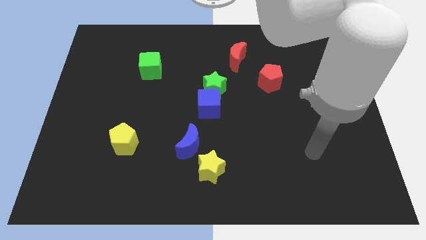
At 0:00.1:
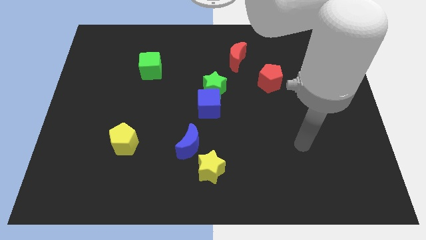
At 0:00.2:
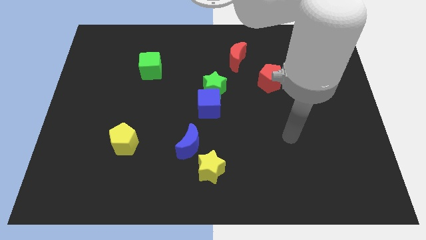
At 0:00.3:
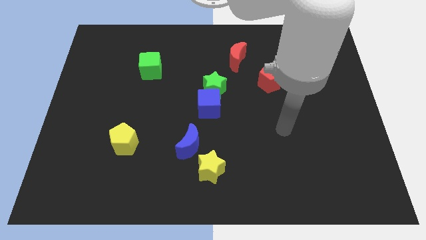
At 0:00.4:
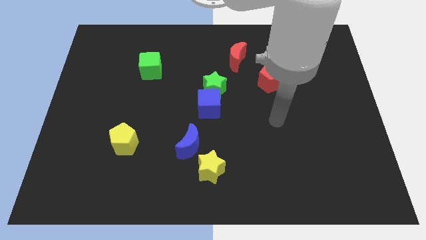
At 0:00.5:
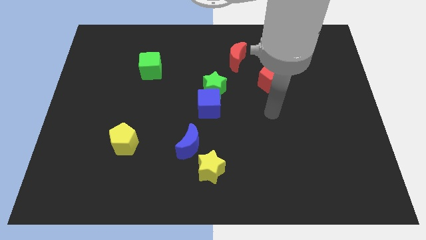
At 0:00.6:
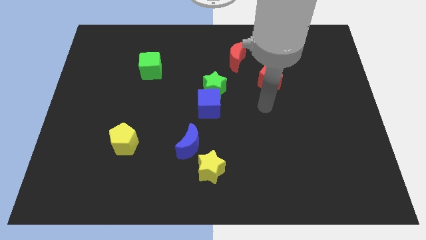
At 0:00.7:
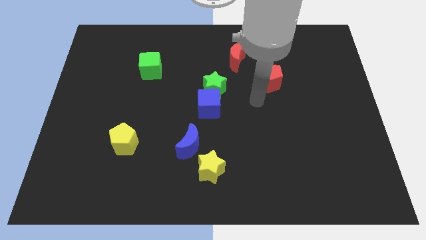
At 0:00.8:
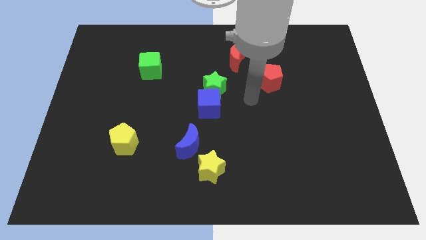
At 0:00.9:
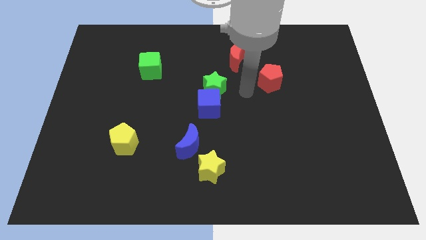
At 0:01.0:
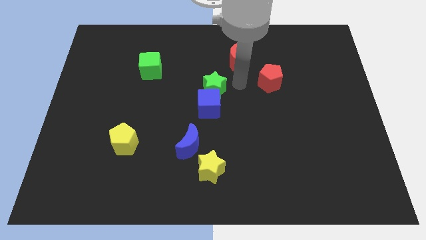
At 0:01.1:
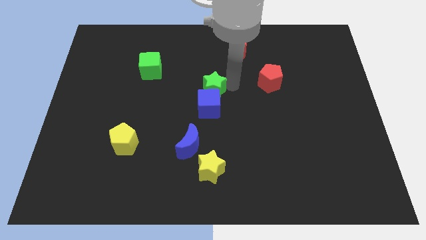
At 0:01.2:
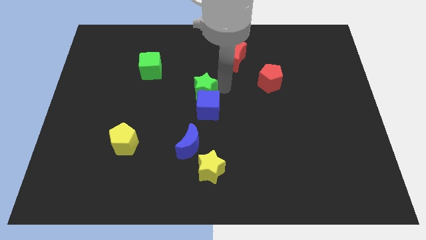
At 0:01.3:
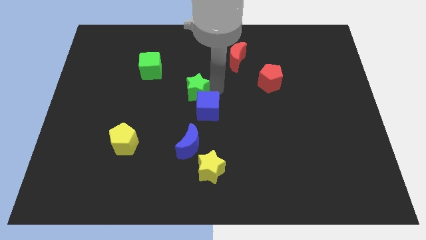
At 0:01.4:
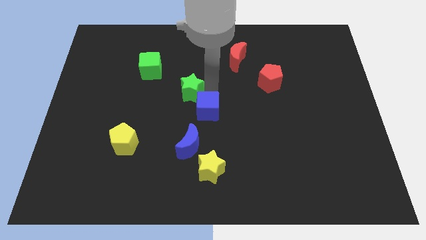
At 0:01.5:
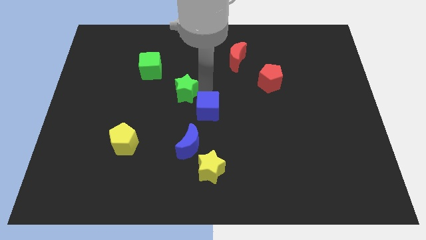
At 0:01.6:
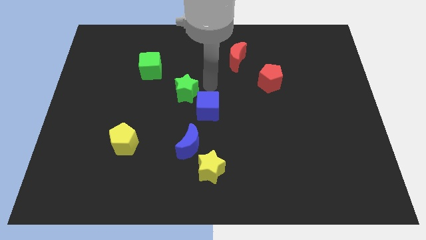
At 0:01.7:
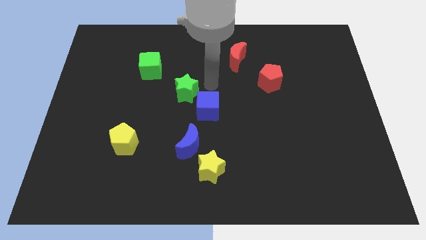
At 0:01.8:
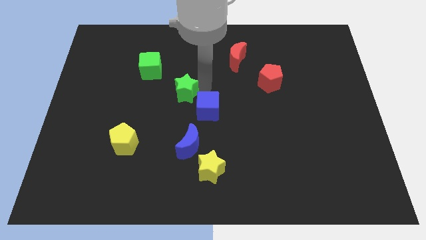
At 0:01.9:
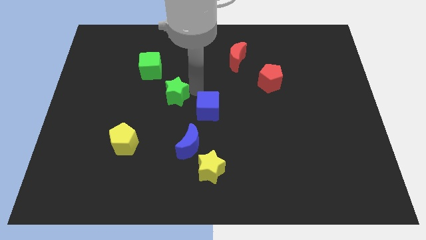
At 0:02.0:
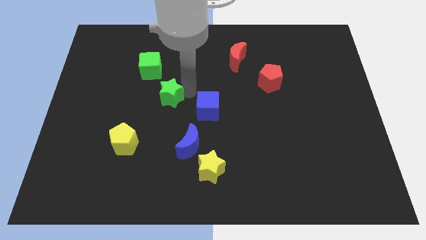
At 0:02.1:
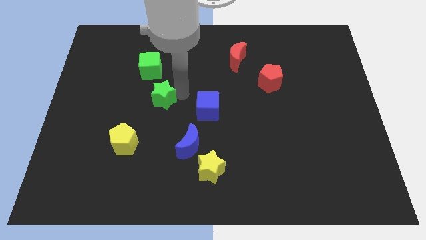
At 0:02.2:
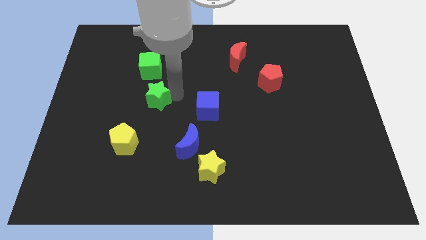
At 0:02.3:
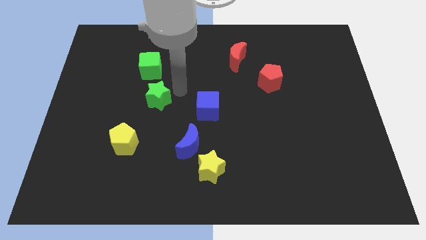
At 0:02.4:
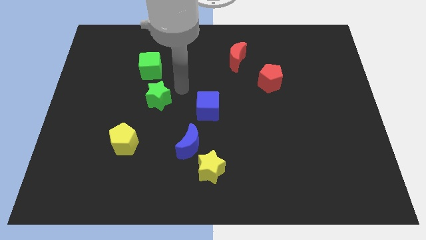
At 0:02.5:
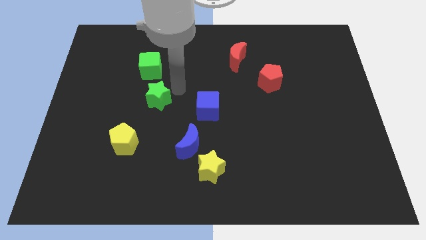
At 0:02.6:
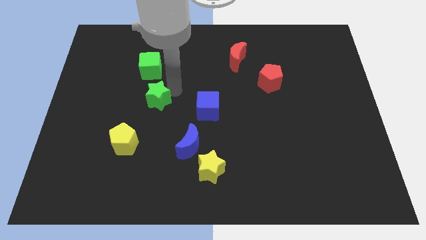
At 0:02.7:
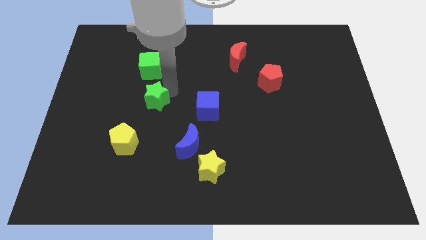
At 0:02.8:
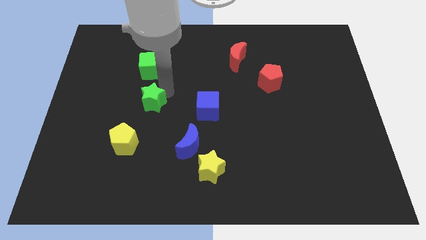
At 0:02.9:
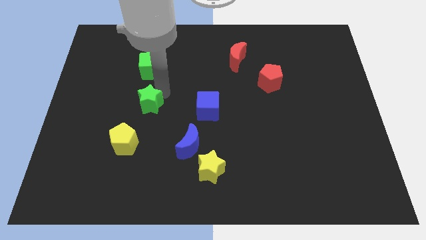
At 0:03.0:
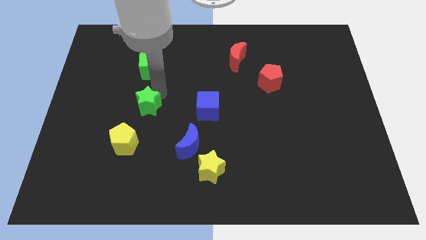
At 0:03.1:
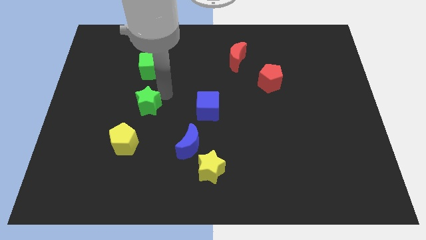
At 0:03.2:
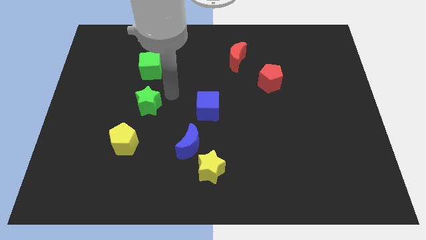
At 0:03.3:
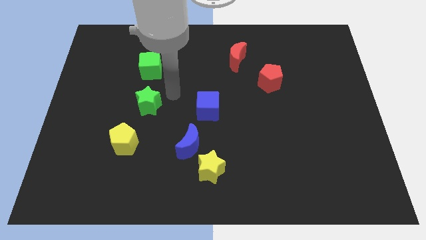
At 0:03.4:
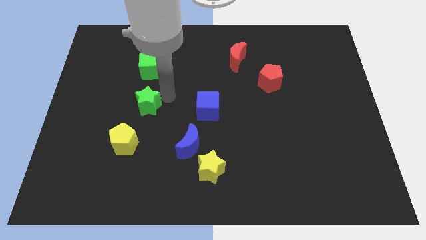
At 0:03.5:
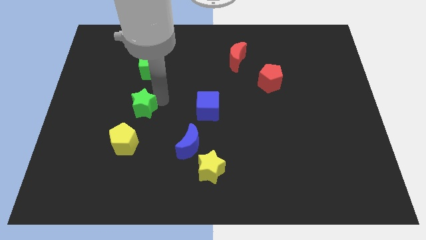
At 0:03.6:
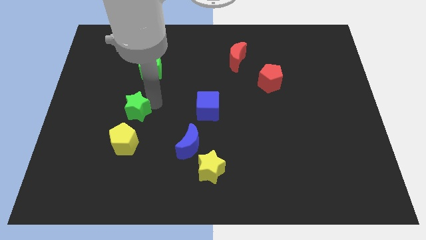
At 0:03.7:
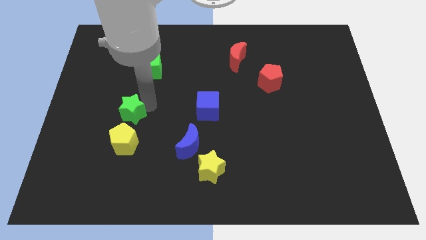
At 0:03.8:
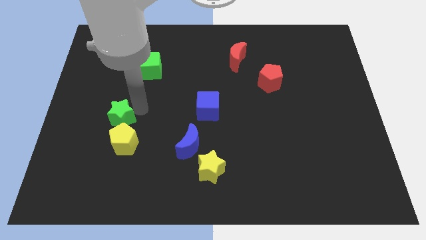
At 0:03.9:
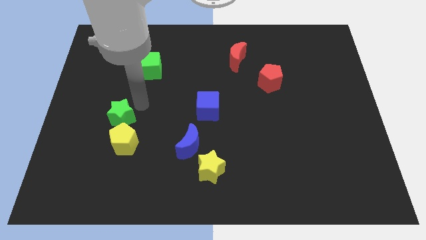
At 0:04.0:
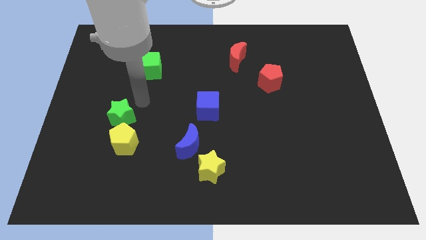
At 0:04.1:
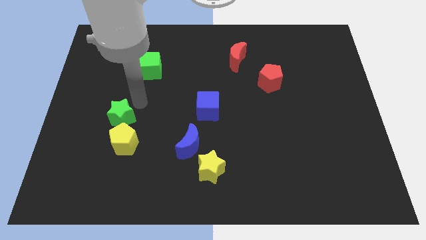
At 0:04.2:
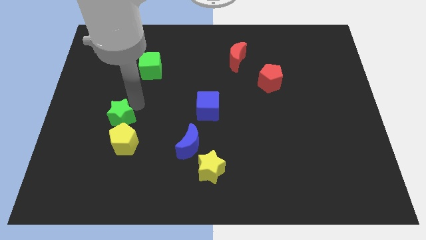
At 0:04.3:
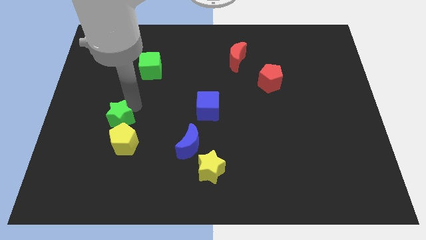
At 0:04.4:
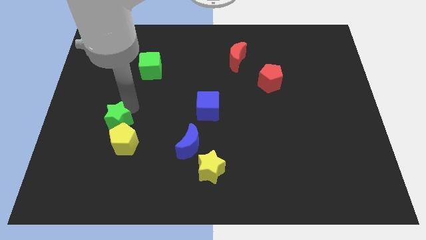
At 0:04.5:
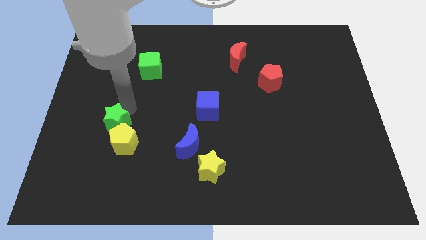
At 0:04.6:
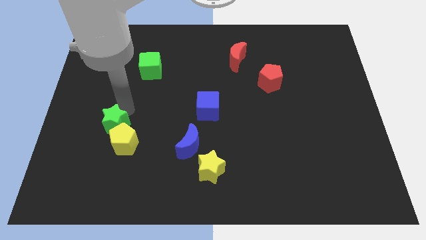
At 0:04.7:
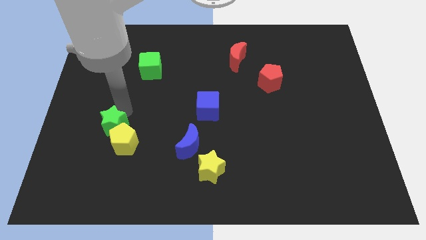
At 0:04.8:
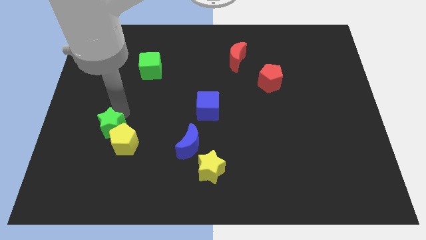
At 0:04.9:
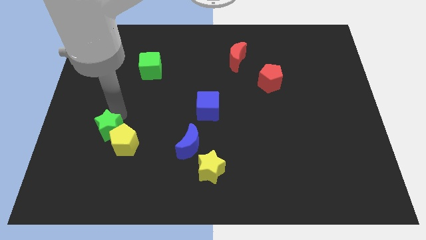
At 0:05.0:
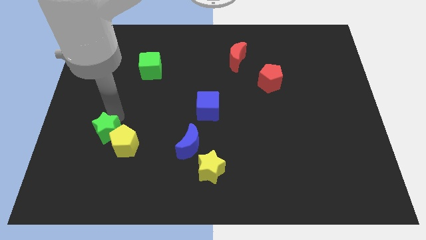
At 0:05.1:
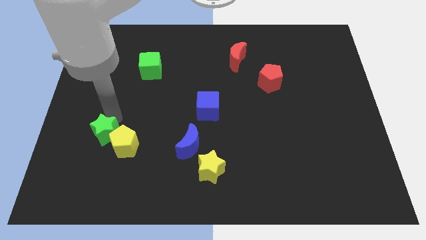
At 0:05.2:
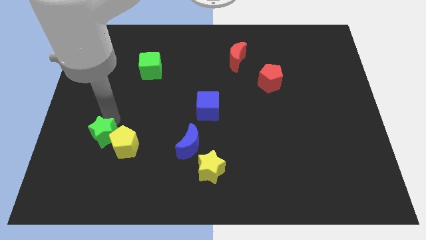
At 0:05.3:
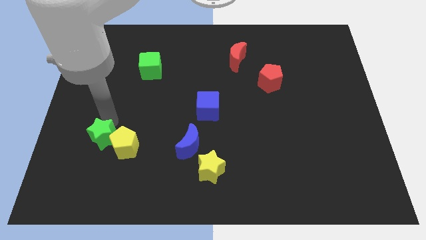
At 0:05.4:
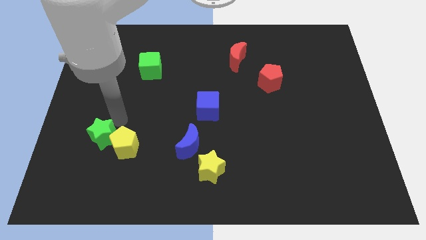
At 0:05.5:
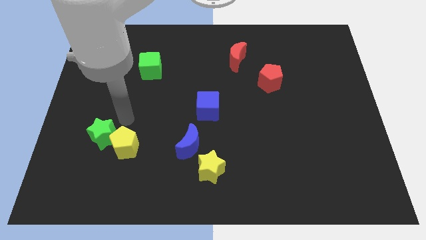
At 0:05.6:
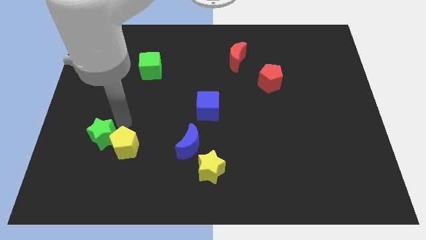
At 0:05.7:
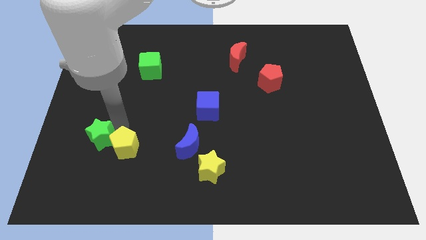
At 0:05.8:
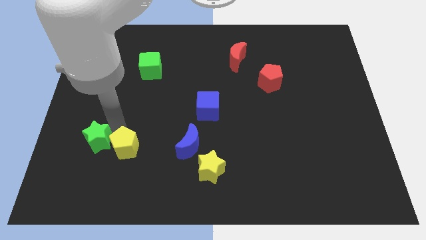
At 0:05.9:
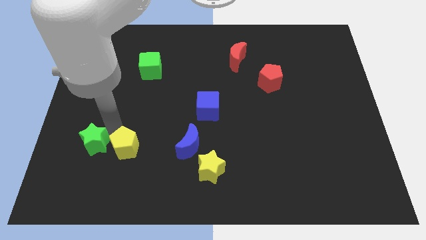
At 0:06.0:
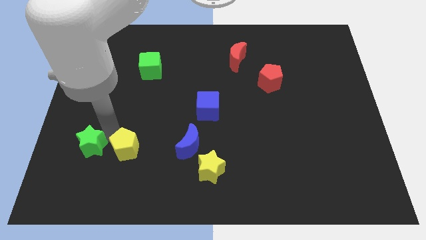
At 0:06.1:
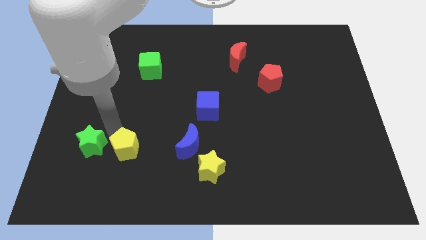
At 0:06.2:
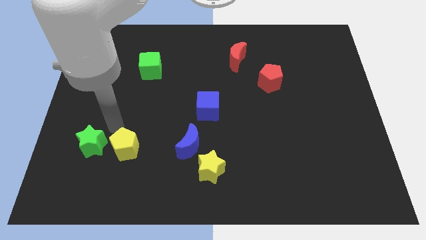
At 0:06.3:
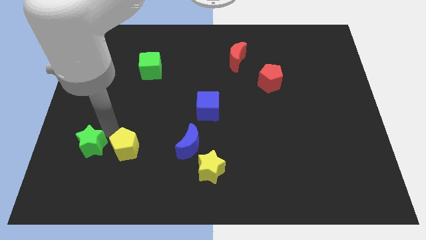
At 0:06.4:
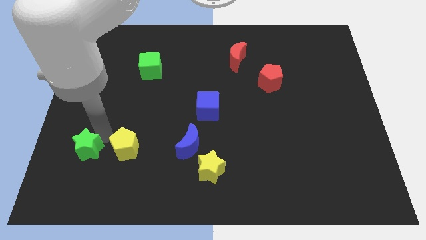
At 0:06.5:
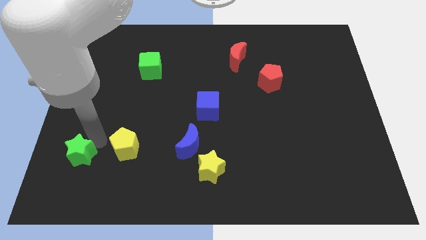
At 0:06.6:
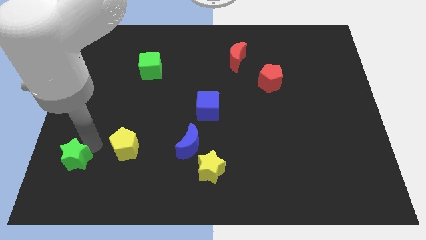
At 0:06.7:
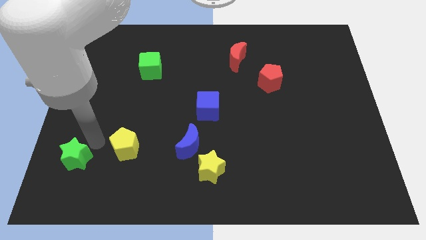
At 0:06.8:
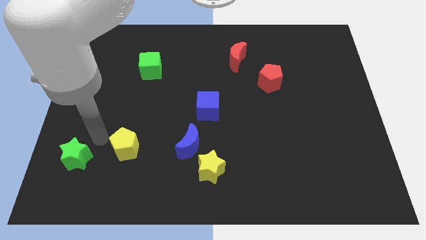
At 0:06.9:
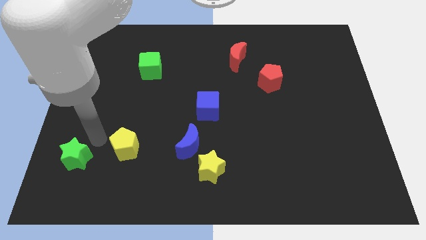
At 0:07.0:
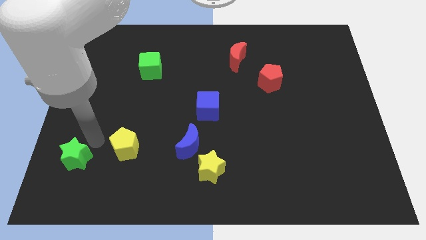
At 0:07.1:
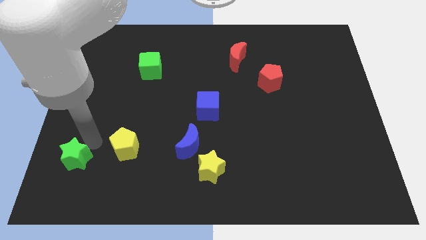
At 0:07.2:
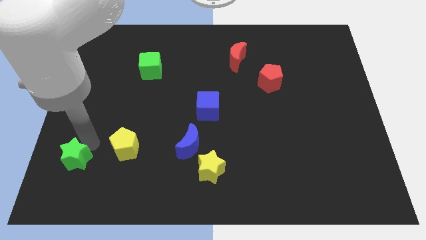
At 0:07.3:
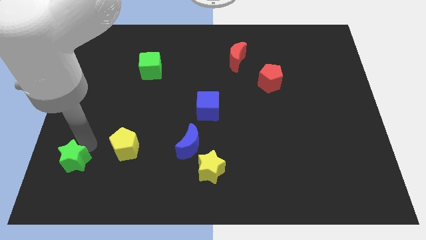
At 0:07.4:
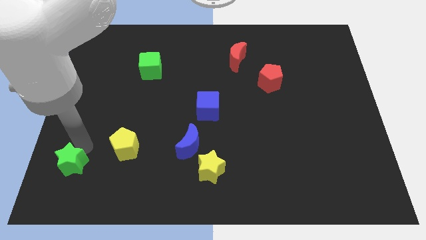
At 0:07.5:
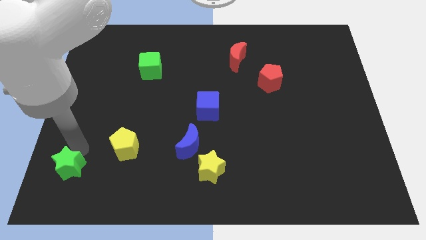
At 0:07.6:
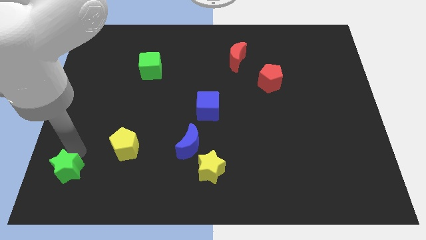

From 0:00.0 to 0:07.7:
push the green star to the lower left corner

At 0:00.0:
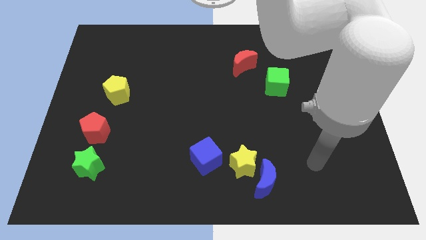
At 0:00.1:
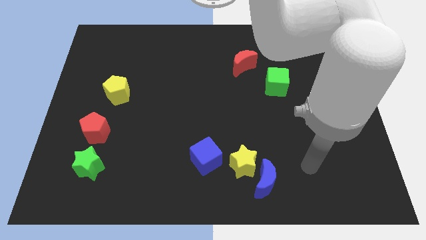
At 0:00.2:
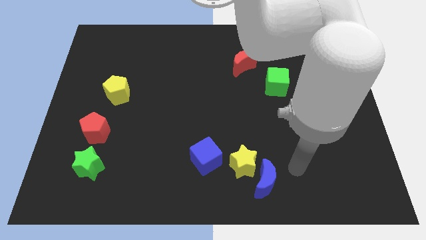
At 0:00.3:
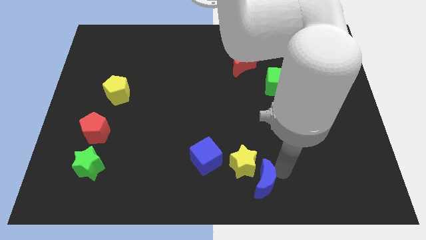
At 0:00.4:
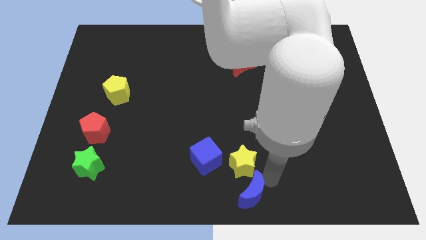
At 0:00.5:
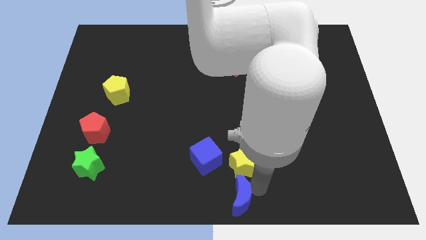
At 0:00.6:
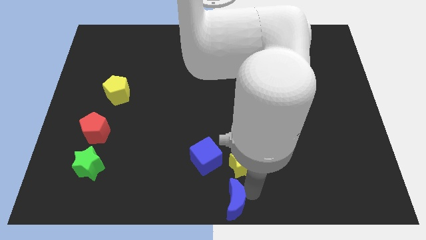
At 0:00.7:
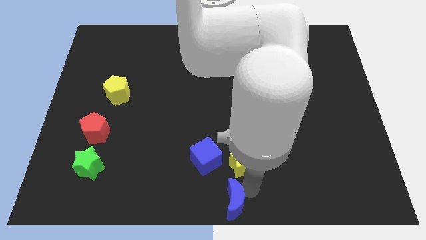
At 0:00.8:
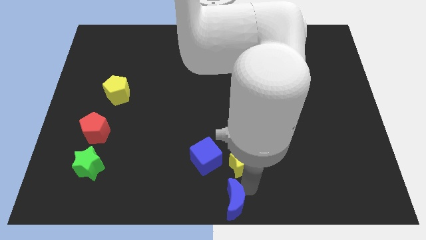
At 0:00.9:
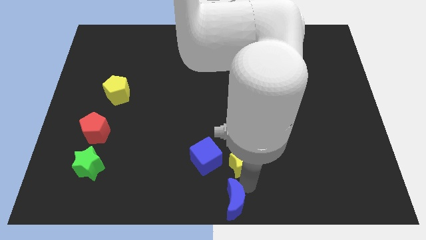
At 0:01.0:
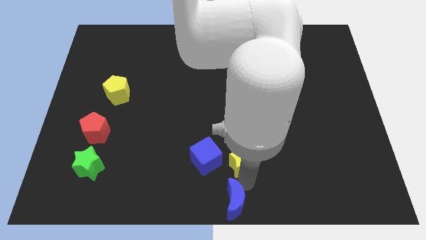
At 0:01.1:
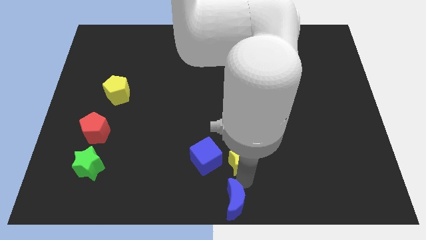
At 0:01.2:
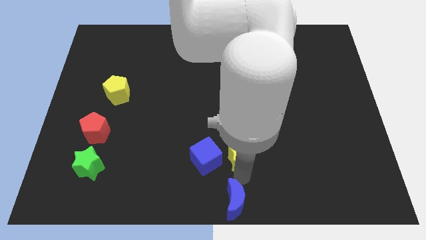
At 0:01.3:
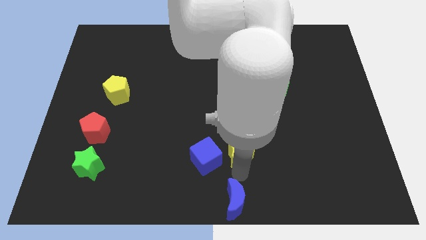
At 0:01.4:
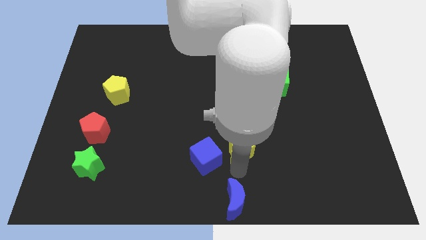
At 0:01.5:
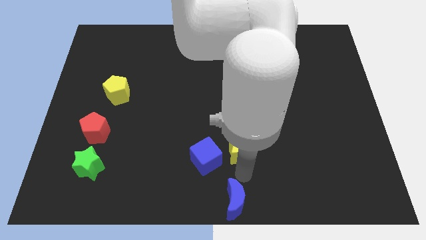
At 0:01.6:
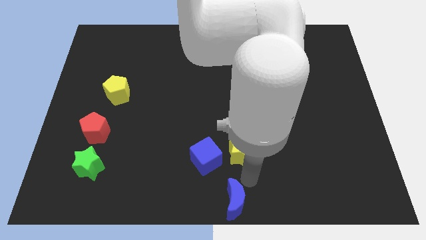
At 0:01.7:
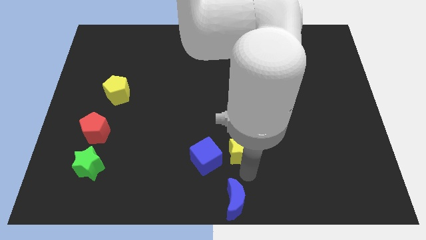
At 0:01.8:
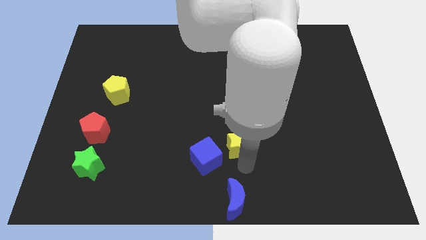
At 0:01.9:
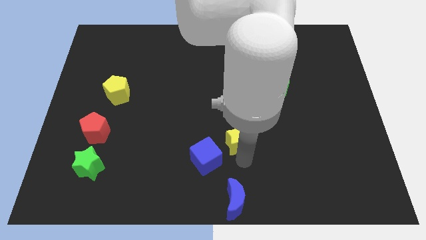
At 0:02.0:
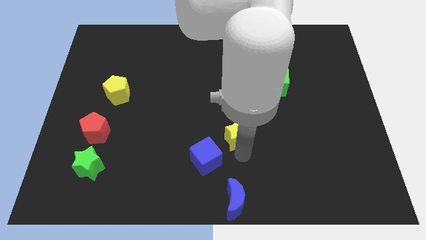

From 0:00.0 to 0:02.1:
push the yellow star to the middle
